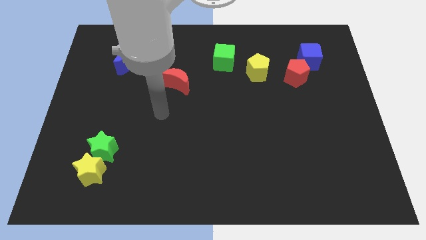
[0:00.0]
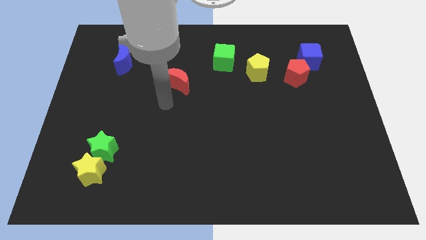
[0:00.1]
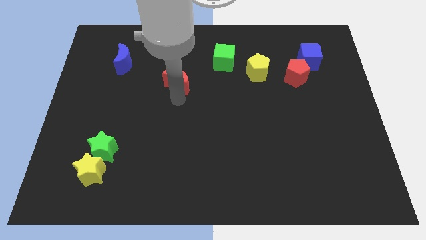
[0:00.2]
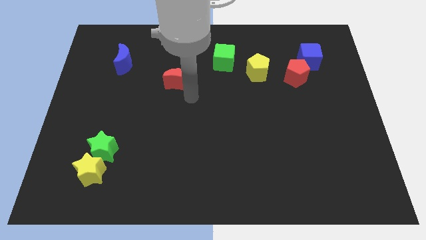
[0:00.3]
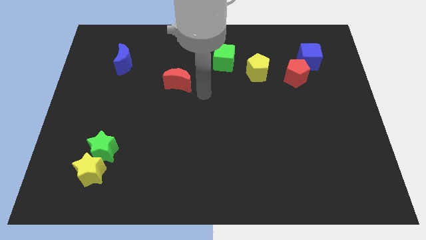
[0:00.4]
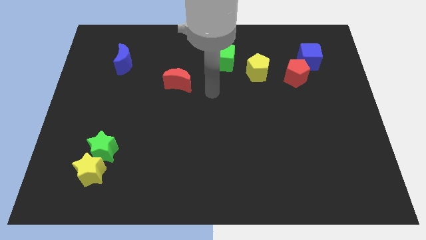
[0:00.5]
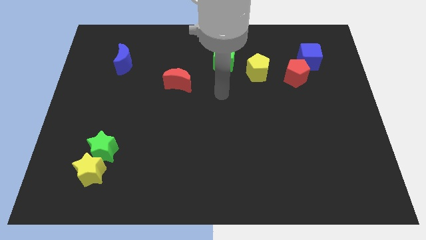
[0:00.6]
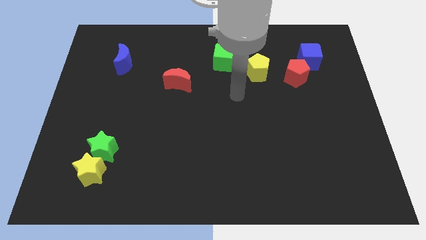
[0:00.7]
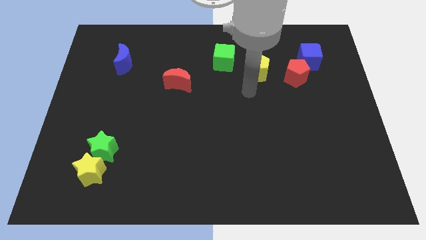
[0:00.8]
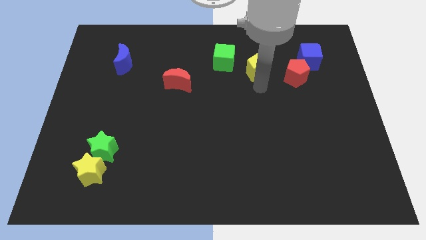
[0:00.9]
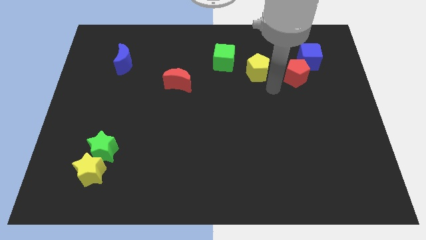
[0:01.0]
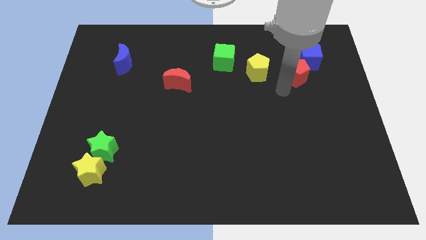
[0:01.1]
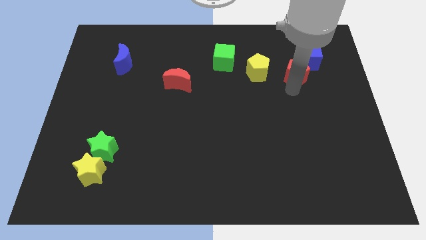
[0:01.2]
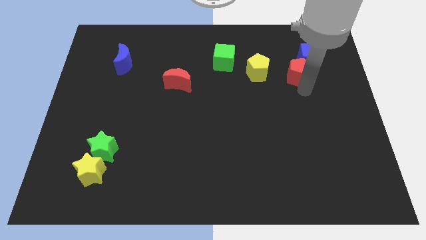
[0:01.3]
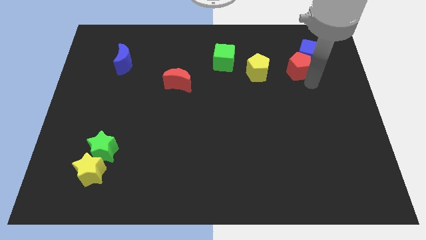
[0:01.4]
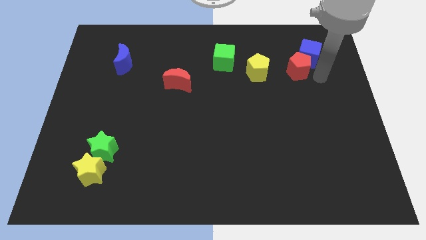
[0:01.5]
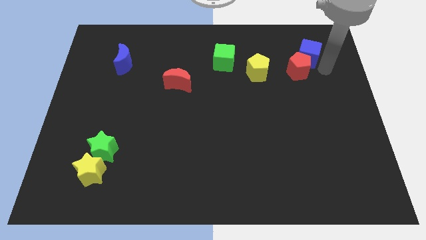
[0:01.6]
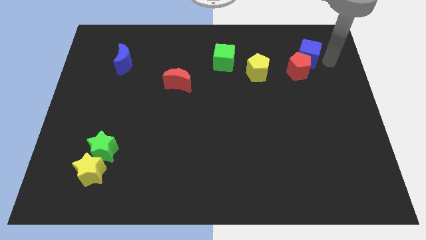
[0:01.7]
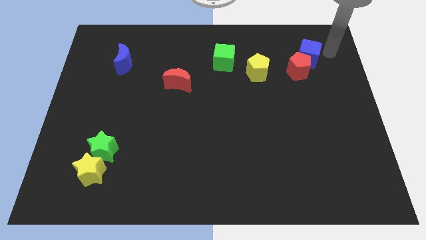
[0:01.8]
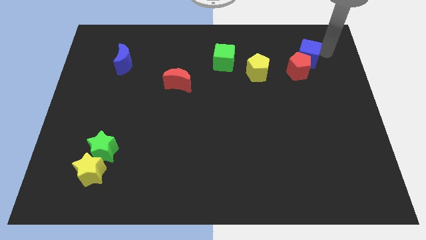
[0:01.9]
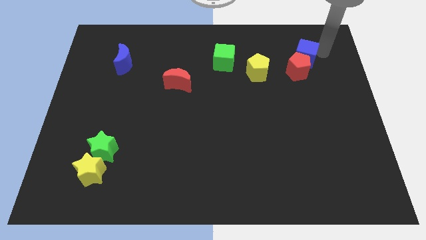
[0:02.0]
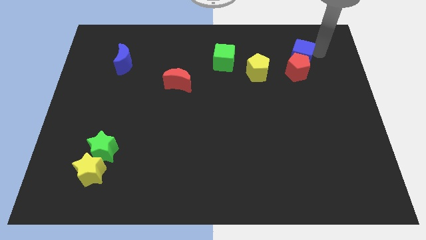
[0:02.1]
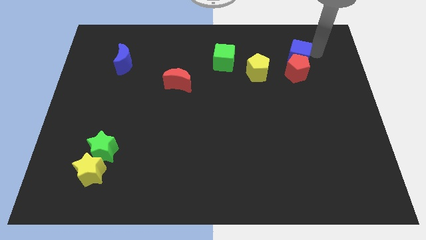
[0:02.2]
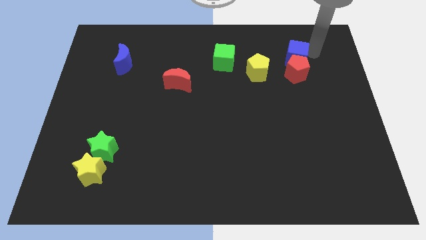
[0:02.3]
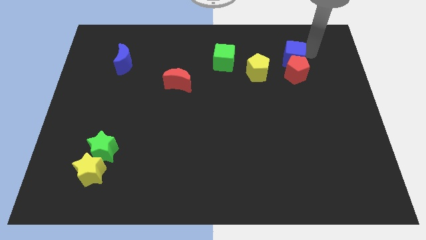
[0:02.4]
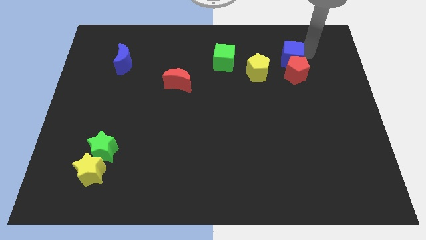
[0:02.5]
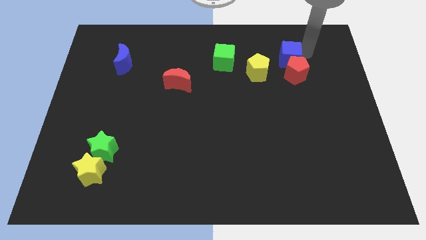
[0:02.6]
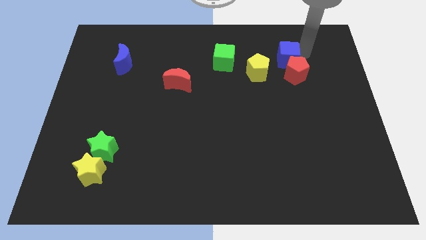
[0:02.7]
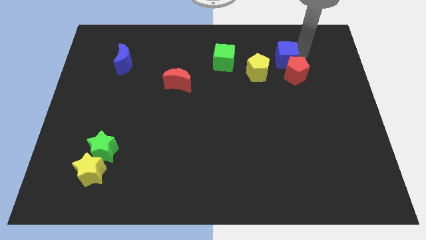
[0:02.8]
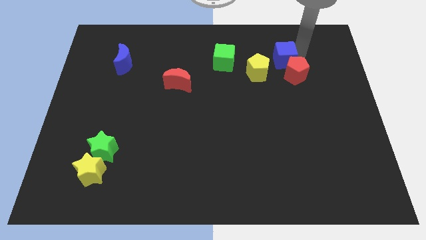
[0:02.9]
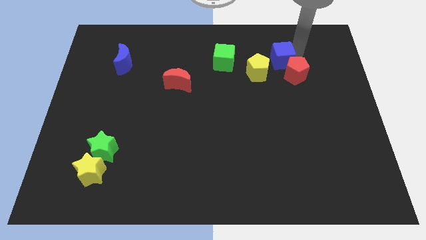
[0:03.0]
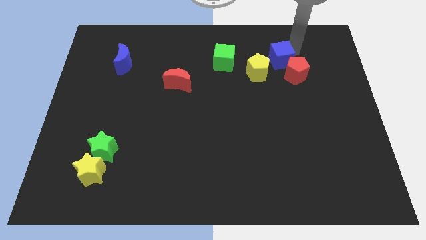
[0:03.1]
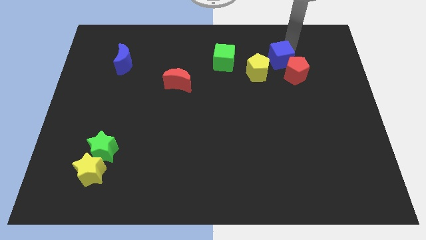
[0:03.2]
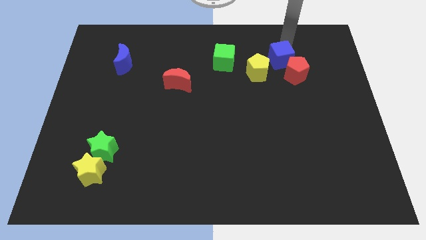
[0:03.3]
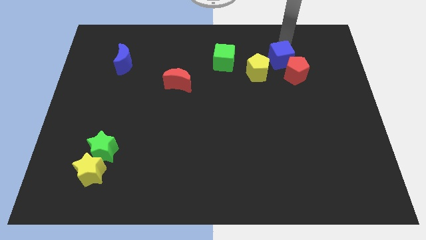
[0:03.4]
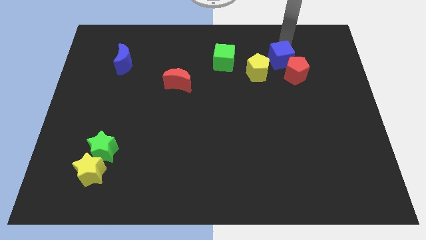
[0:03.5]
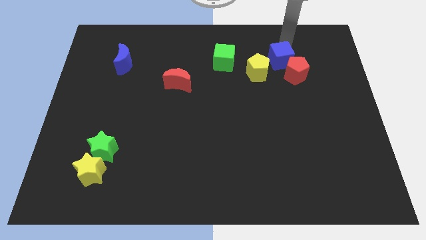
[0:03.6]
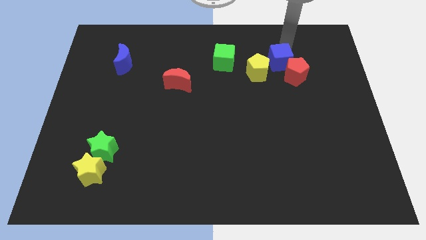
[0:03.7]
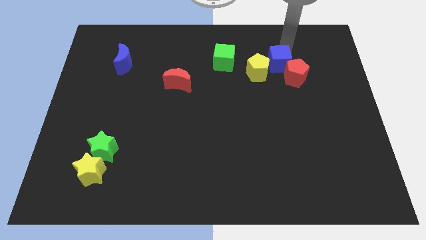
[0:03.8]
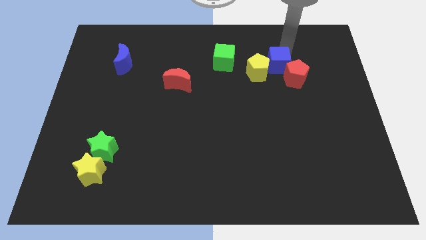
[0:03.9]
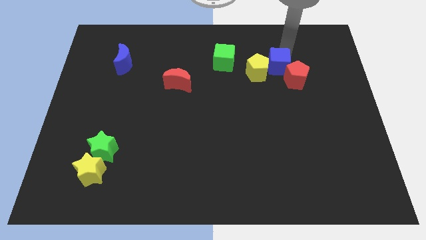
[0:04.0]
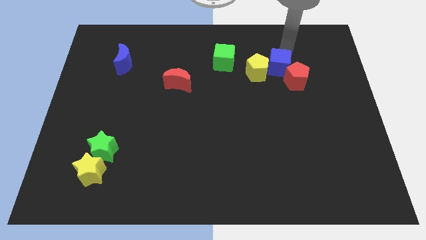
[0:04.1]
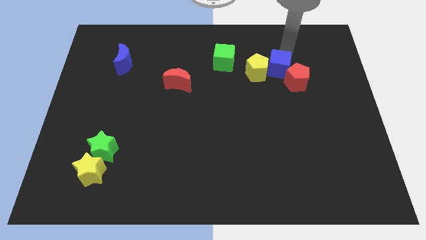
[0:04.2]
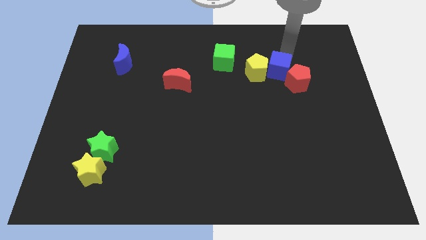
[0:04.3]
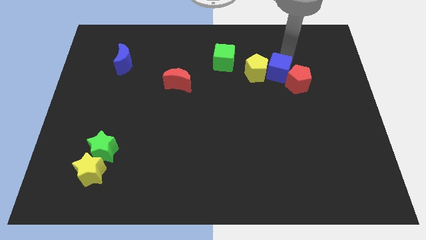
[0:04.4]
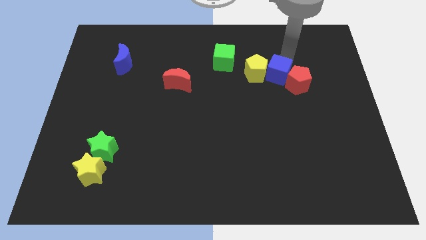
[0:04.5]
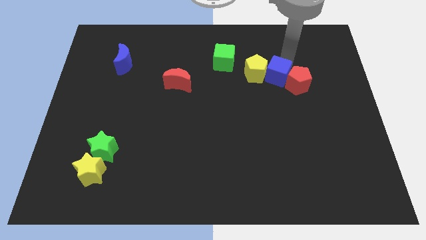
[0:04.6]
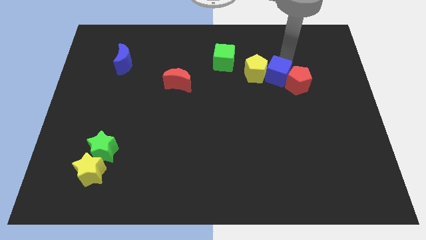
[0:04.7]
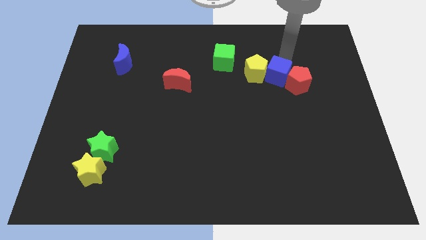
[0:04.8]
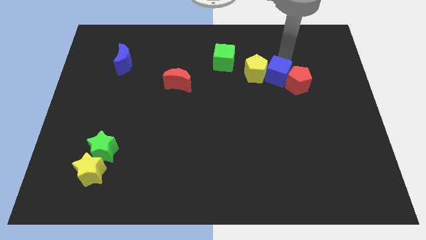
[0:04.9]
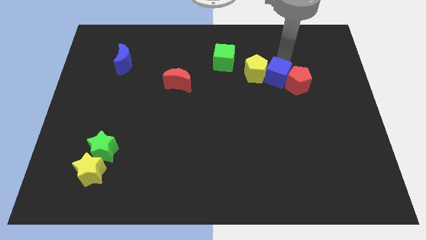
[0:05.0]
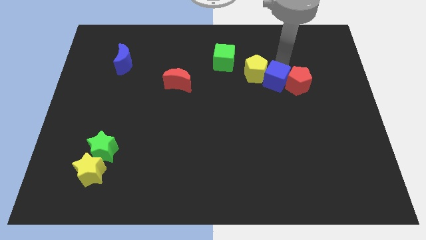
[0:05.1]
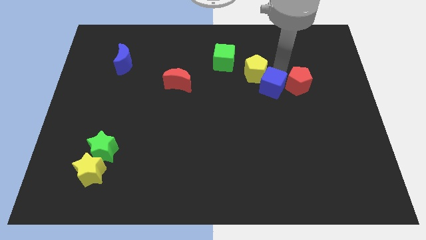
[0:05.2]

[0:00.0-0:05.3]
move the blue cube to the bottom of the yellow pentagon

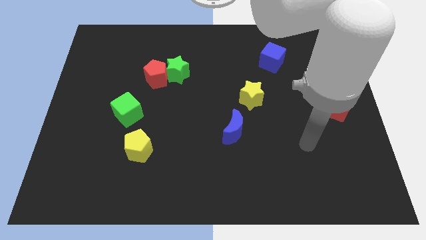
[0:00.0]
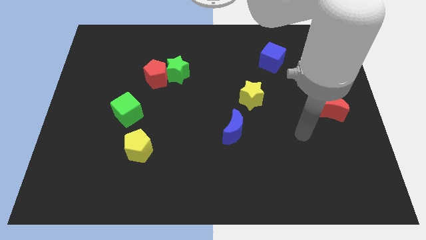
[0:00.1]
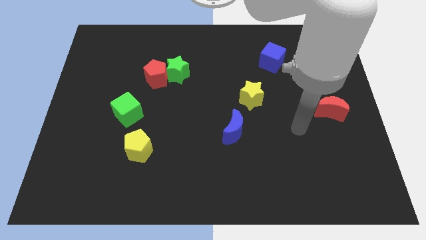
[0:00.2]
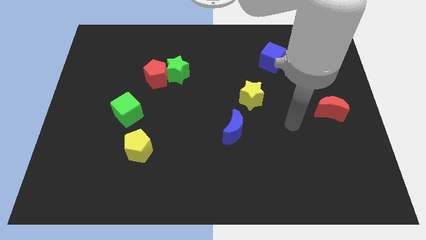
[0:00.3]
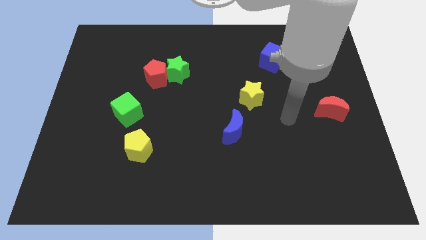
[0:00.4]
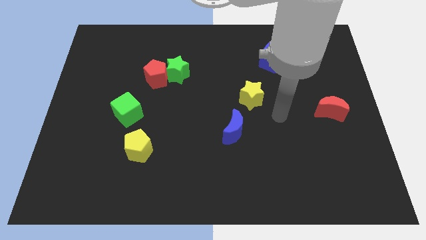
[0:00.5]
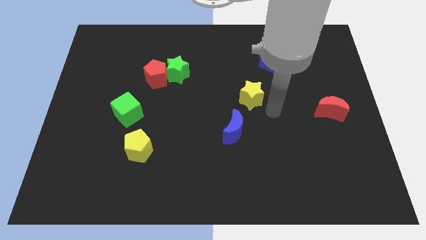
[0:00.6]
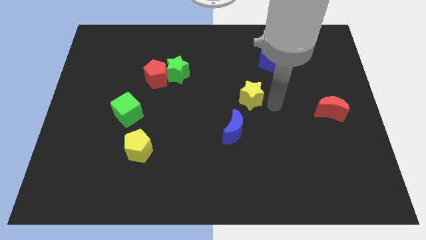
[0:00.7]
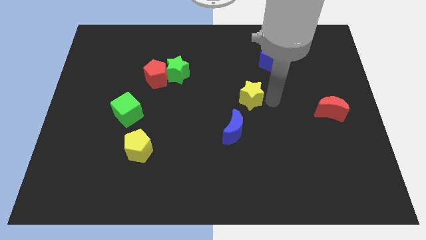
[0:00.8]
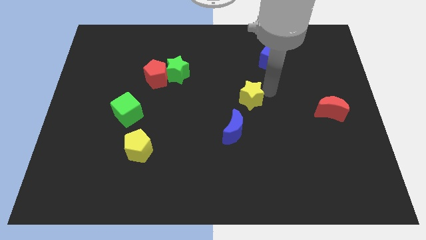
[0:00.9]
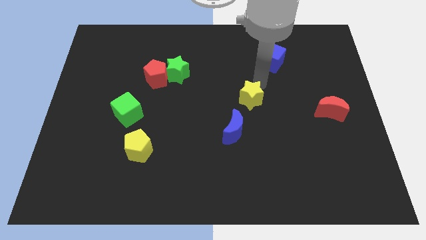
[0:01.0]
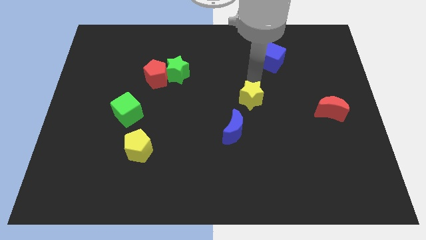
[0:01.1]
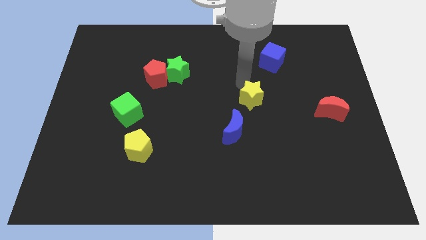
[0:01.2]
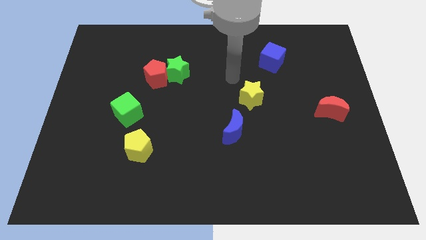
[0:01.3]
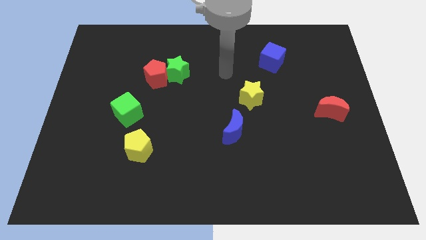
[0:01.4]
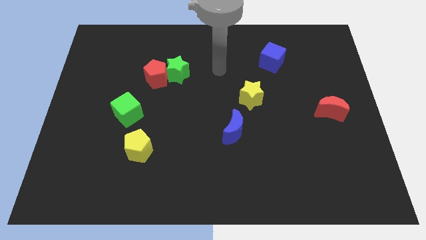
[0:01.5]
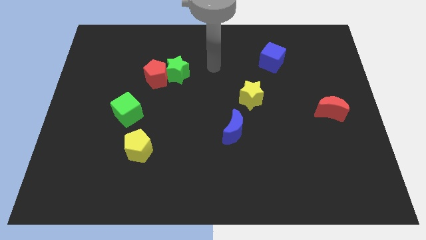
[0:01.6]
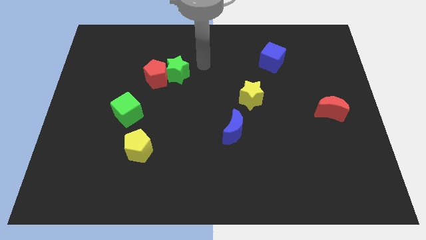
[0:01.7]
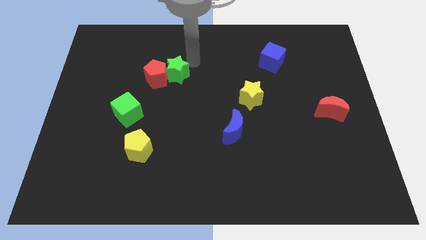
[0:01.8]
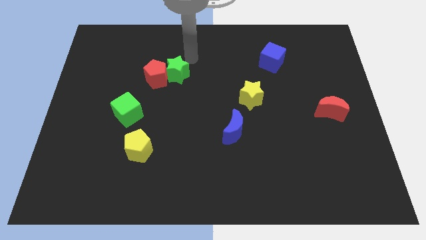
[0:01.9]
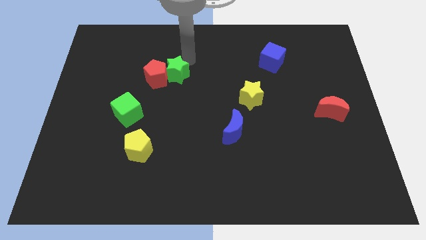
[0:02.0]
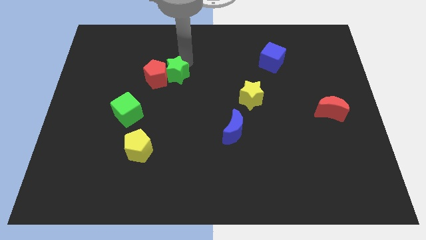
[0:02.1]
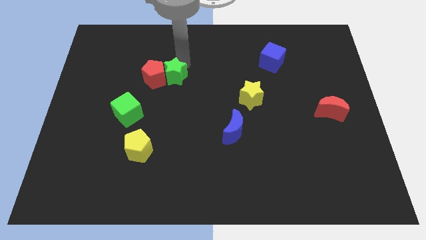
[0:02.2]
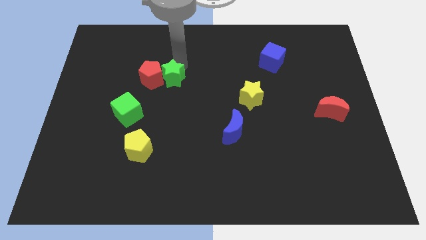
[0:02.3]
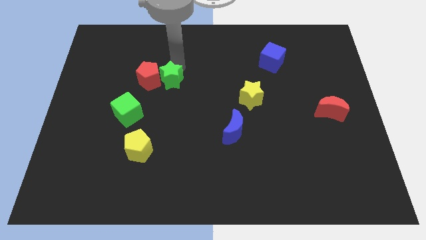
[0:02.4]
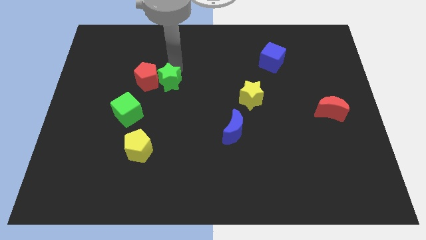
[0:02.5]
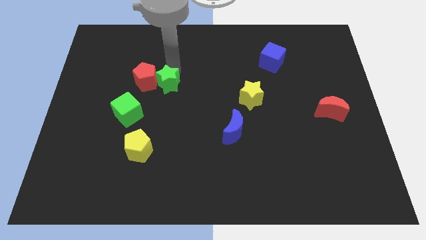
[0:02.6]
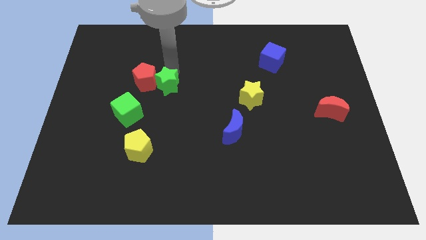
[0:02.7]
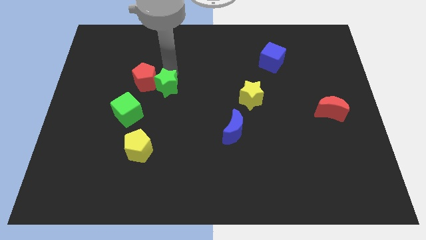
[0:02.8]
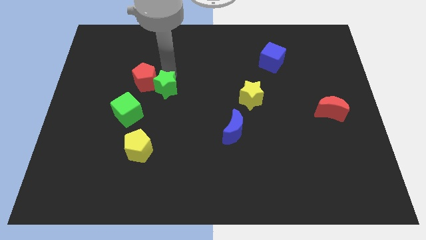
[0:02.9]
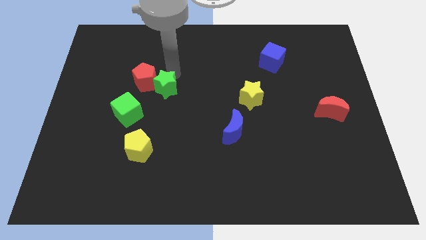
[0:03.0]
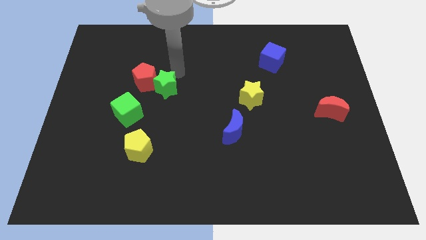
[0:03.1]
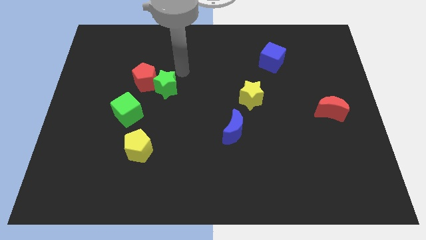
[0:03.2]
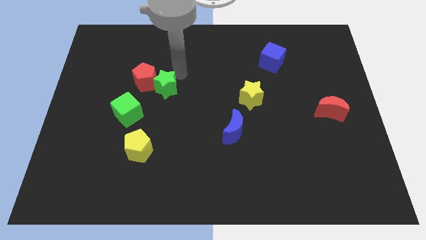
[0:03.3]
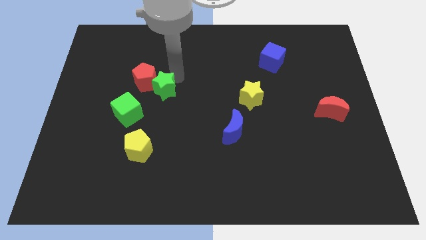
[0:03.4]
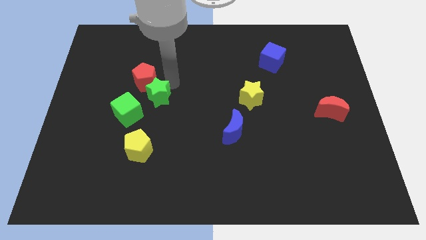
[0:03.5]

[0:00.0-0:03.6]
slide the green star below the red pentagon
